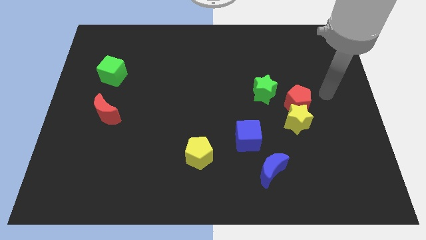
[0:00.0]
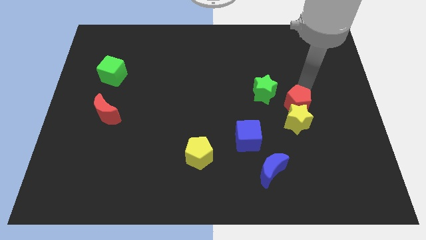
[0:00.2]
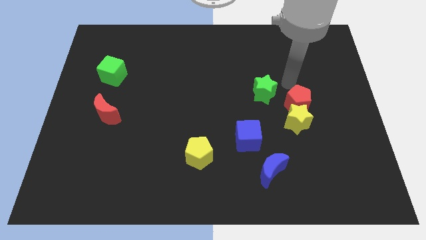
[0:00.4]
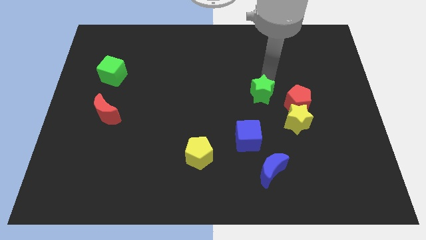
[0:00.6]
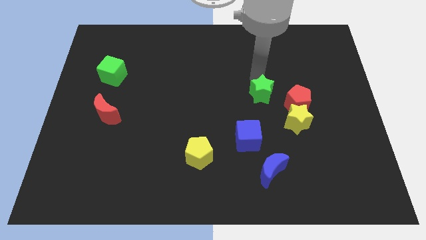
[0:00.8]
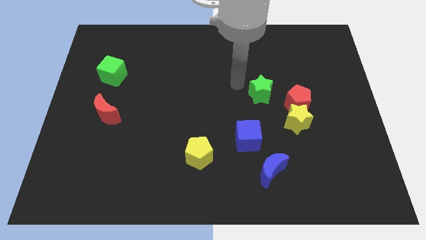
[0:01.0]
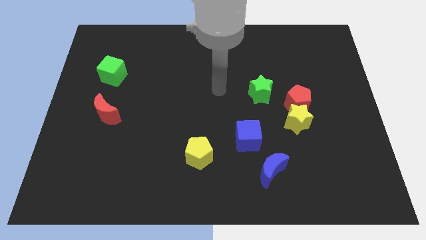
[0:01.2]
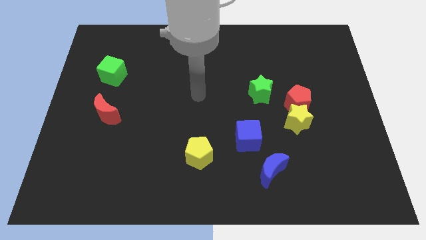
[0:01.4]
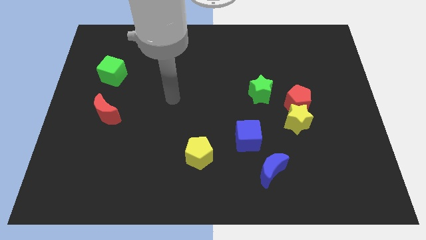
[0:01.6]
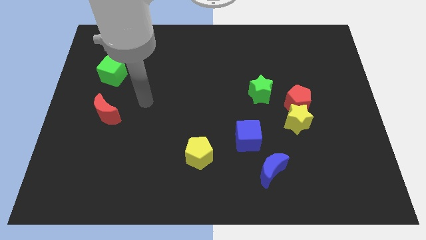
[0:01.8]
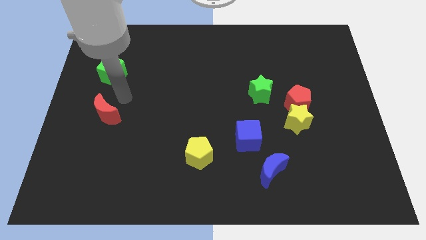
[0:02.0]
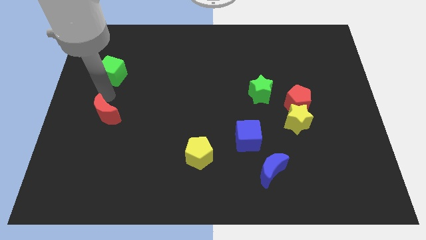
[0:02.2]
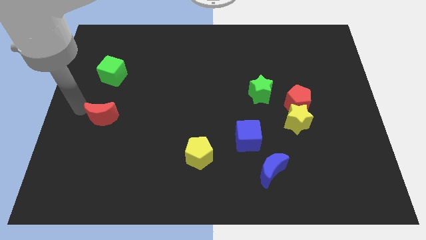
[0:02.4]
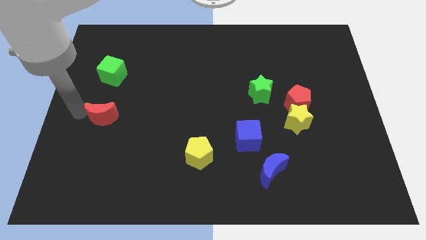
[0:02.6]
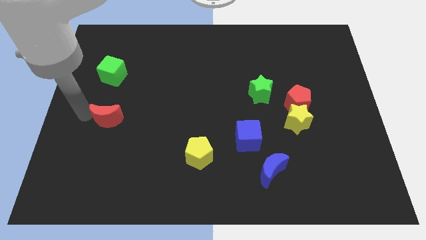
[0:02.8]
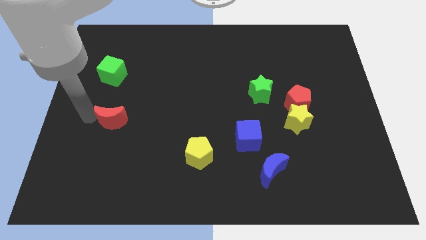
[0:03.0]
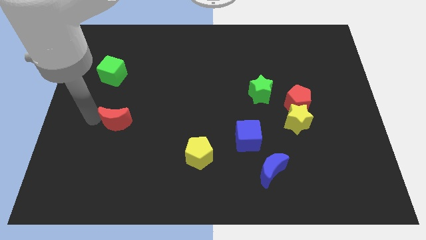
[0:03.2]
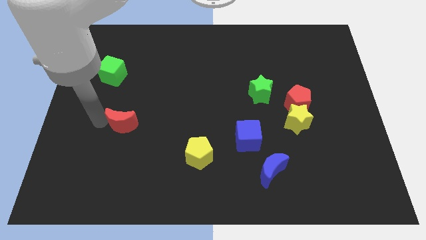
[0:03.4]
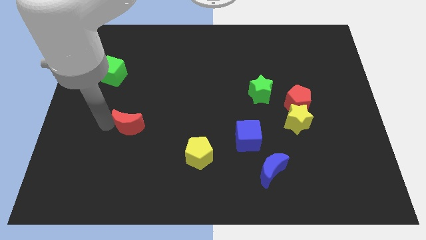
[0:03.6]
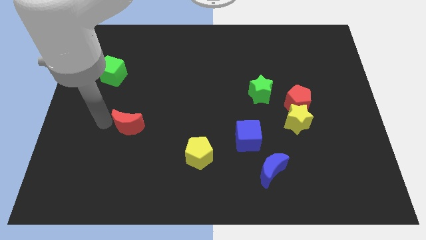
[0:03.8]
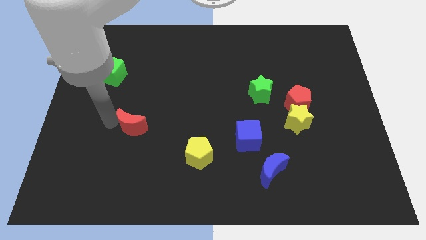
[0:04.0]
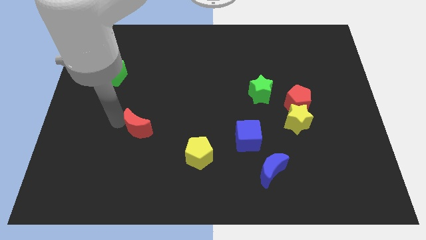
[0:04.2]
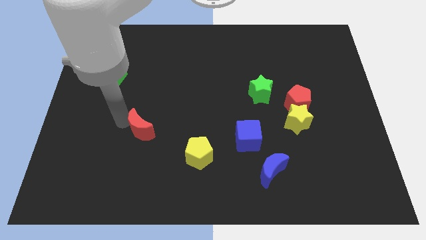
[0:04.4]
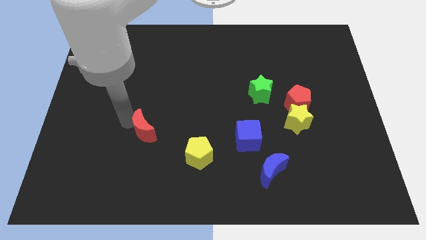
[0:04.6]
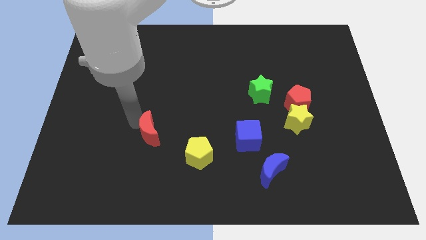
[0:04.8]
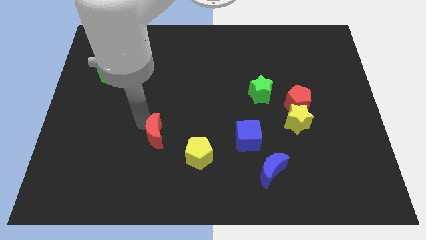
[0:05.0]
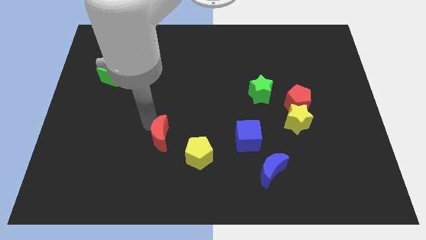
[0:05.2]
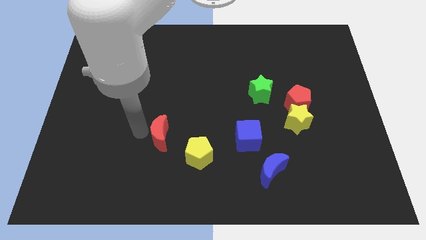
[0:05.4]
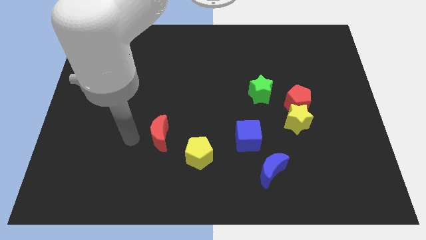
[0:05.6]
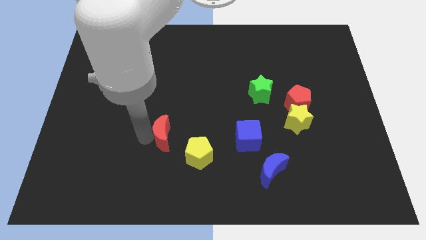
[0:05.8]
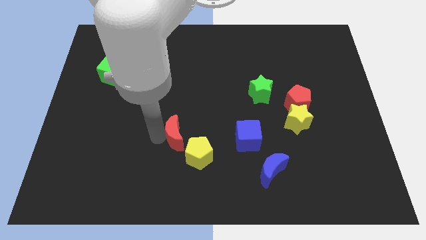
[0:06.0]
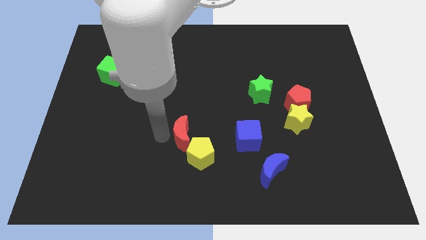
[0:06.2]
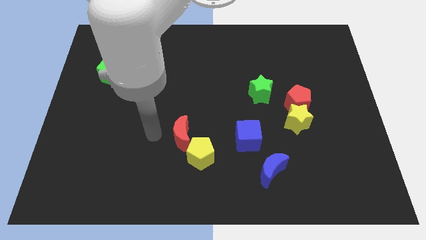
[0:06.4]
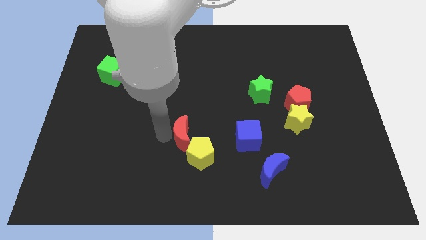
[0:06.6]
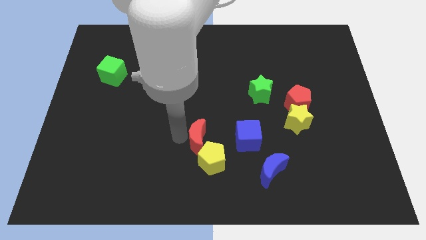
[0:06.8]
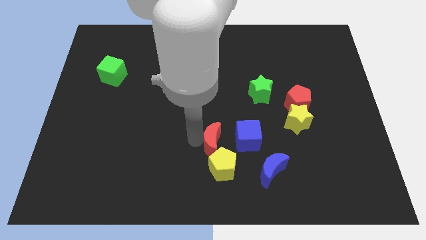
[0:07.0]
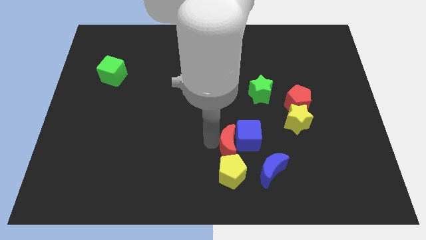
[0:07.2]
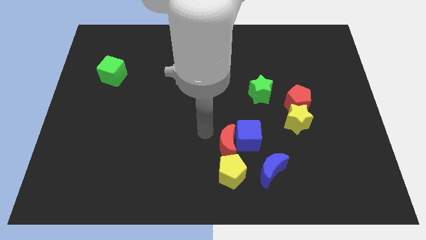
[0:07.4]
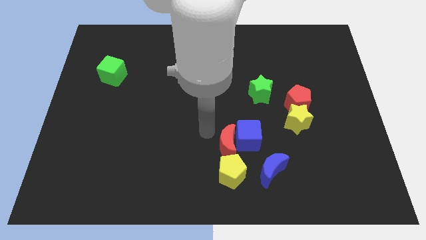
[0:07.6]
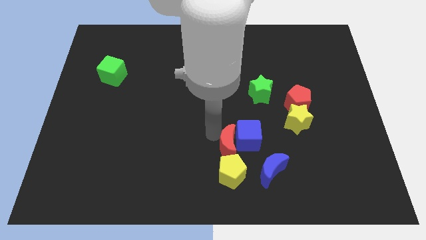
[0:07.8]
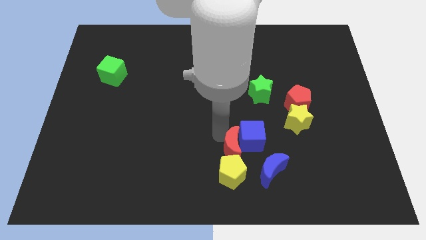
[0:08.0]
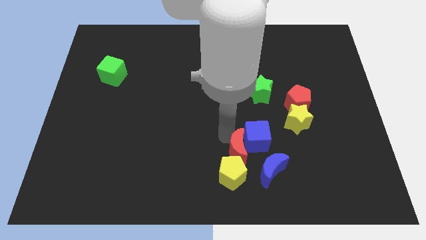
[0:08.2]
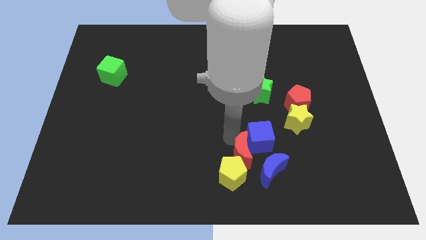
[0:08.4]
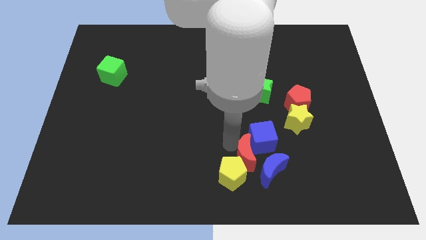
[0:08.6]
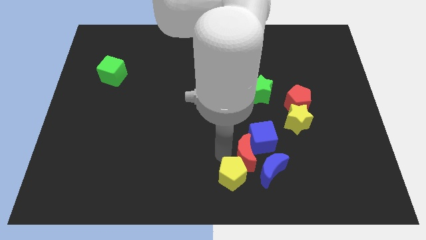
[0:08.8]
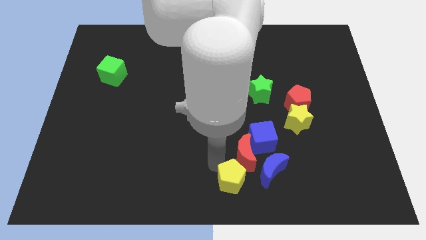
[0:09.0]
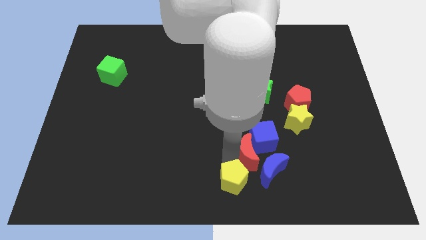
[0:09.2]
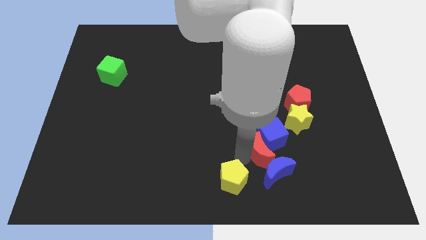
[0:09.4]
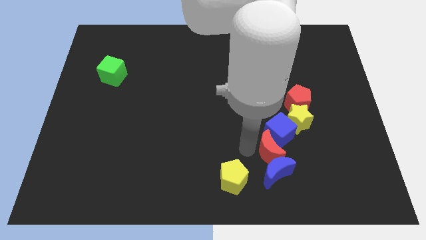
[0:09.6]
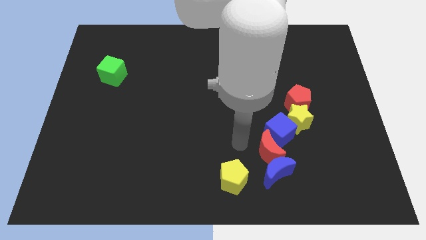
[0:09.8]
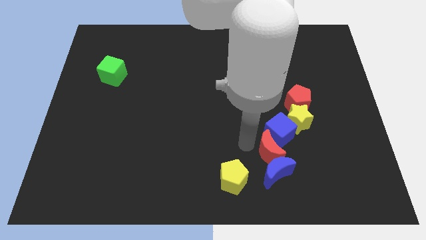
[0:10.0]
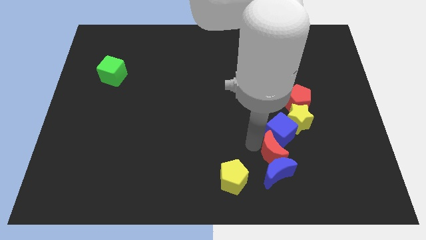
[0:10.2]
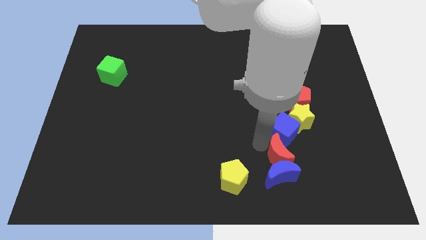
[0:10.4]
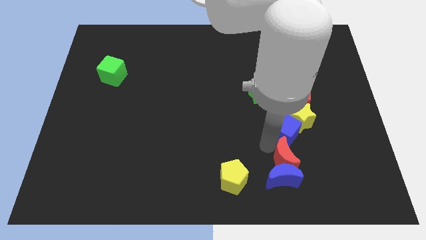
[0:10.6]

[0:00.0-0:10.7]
put the red moon to the bottom of the yellow star

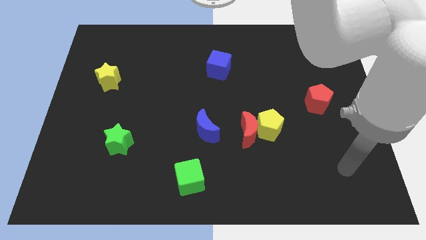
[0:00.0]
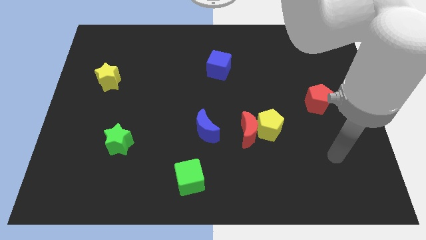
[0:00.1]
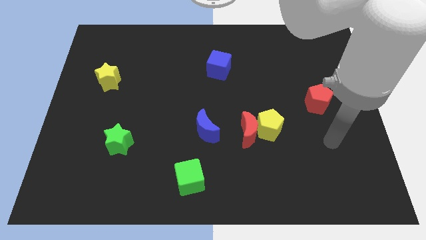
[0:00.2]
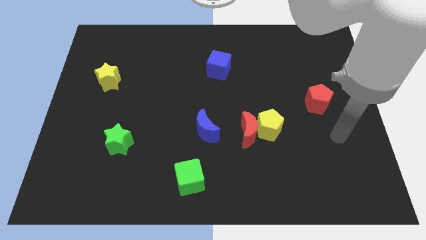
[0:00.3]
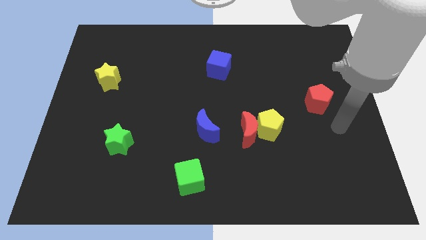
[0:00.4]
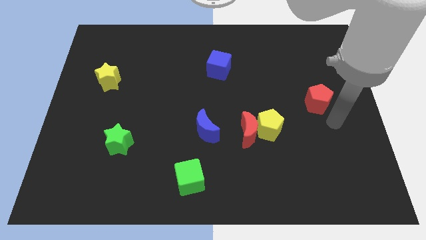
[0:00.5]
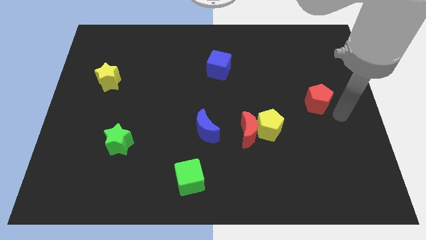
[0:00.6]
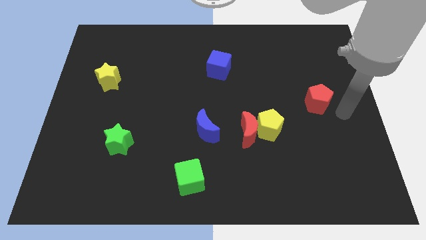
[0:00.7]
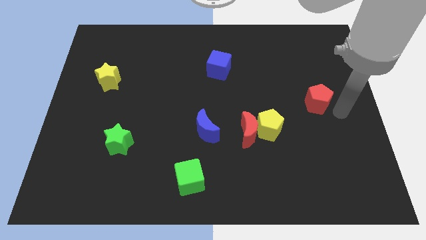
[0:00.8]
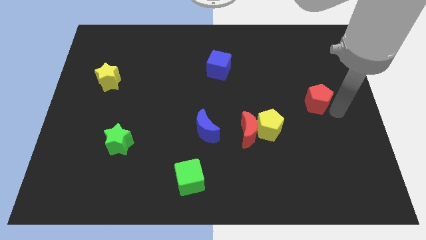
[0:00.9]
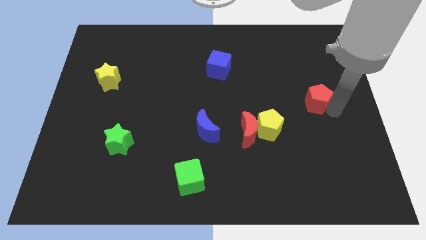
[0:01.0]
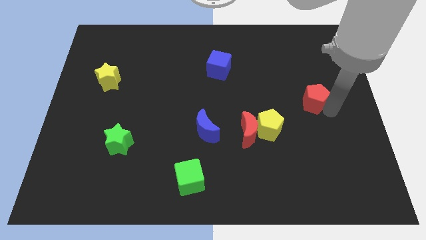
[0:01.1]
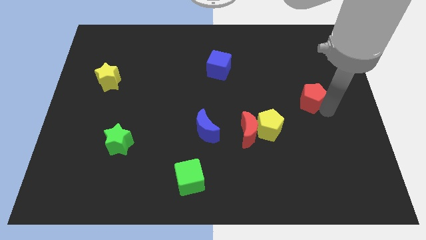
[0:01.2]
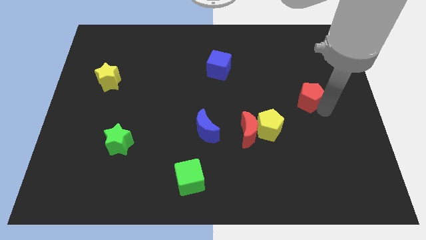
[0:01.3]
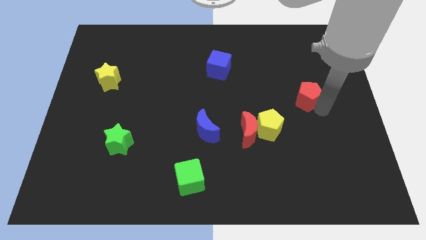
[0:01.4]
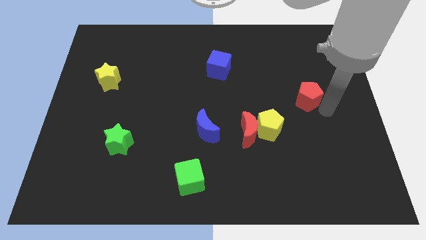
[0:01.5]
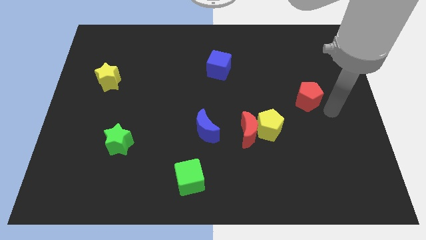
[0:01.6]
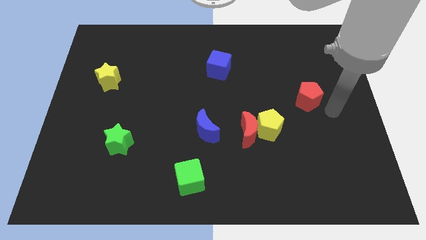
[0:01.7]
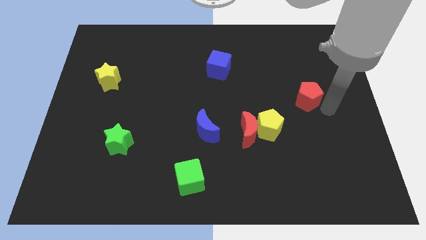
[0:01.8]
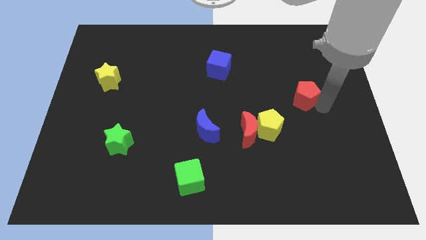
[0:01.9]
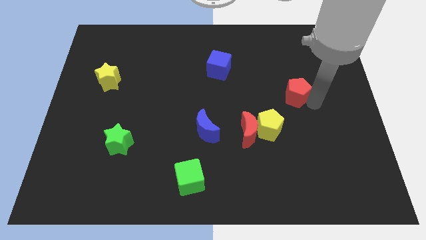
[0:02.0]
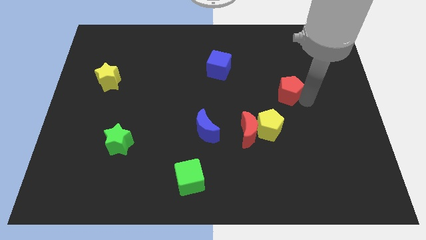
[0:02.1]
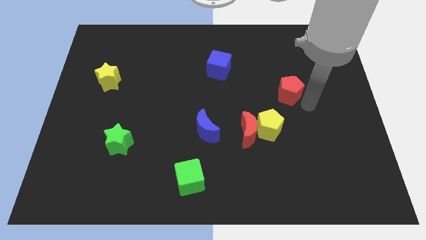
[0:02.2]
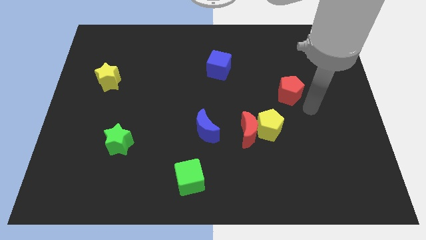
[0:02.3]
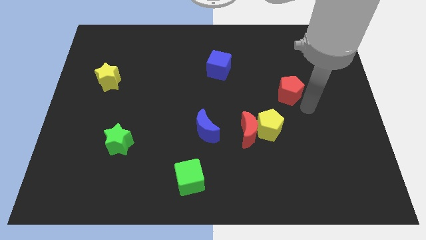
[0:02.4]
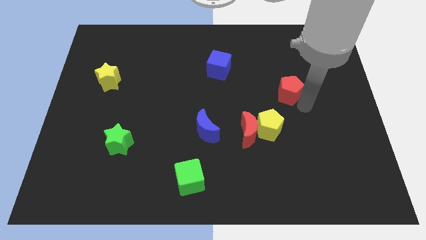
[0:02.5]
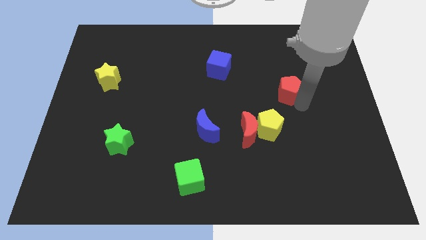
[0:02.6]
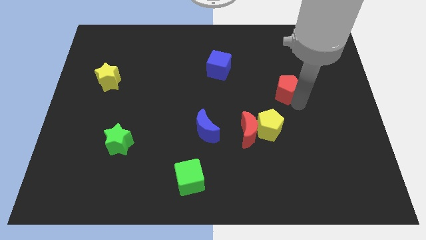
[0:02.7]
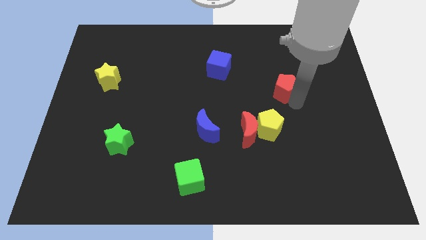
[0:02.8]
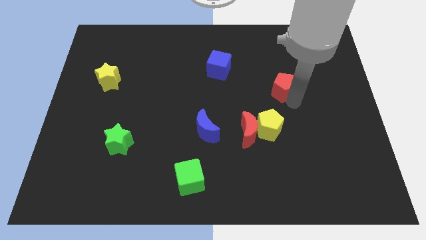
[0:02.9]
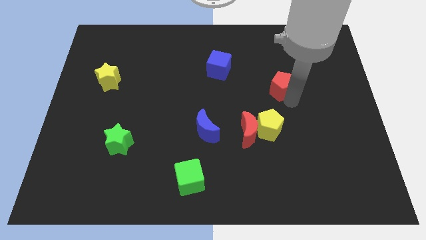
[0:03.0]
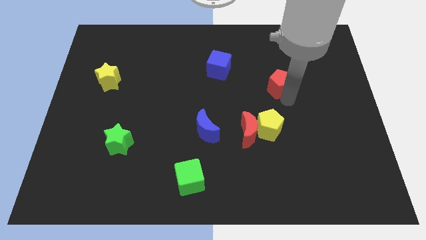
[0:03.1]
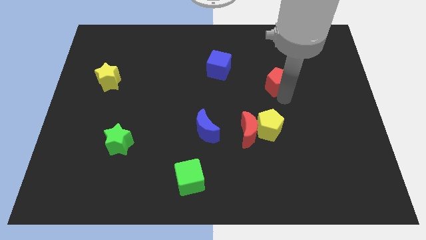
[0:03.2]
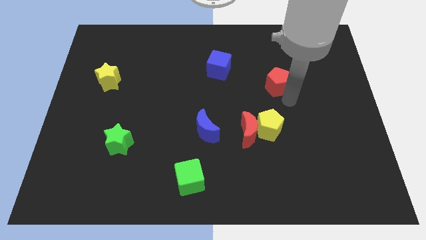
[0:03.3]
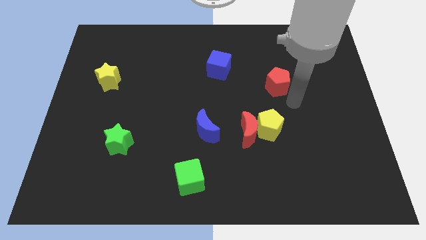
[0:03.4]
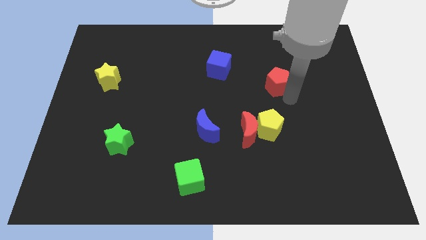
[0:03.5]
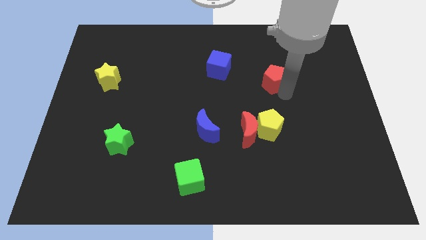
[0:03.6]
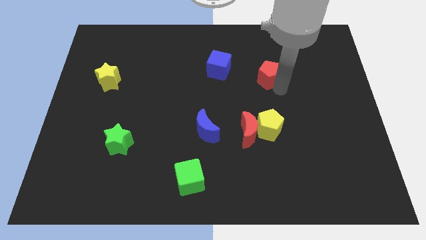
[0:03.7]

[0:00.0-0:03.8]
push the red pentagon to the right of the blue cube
